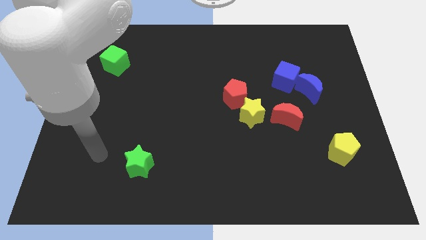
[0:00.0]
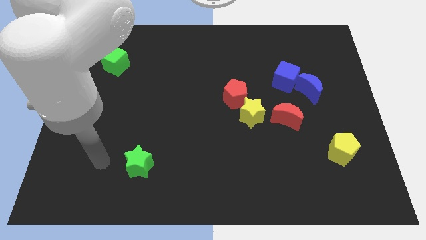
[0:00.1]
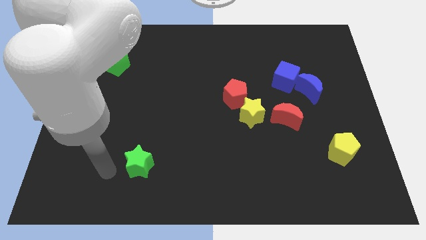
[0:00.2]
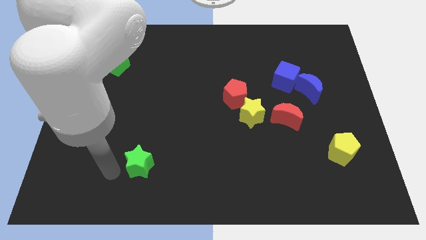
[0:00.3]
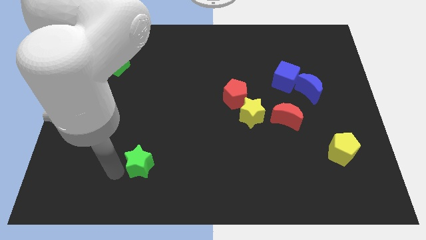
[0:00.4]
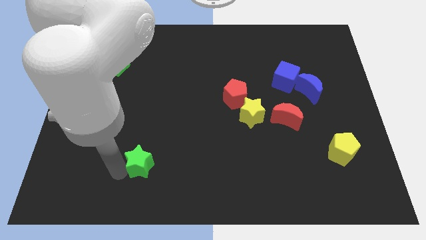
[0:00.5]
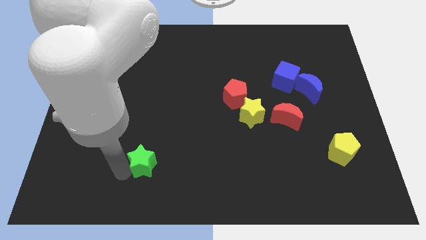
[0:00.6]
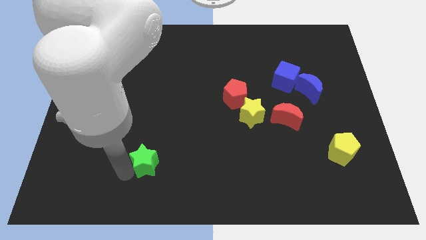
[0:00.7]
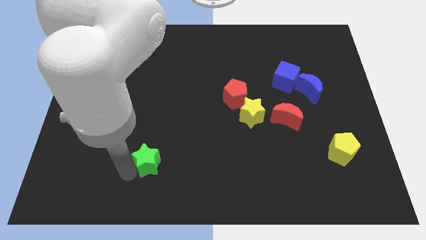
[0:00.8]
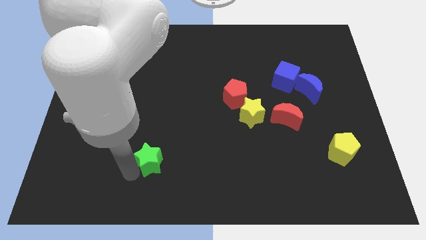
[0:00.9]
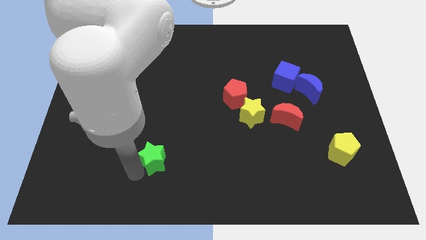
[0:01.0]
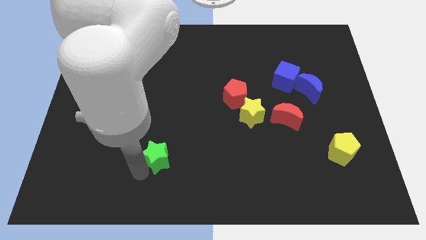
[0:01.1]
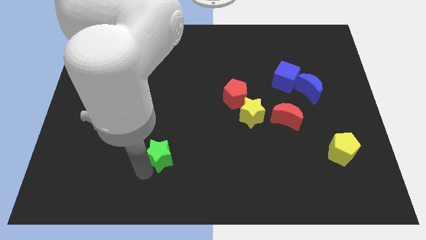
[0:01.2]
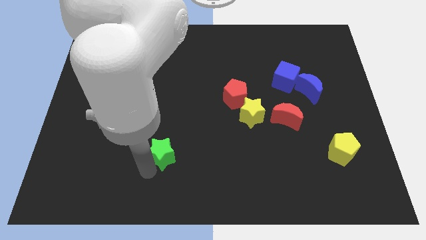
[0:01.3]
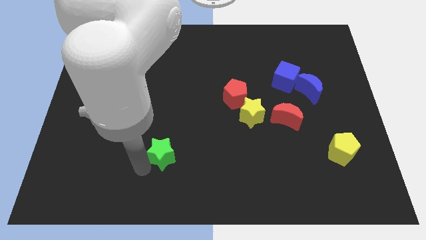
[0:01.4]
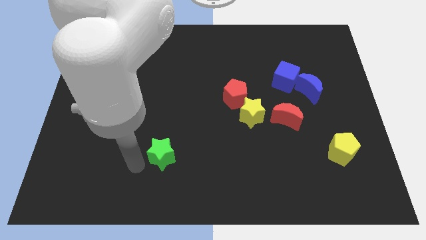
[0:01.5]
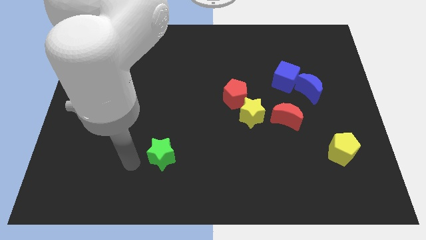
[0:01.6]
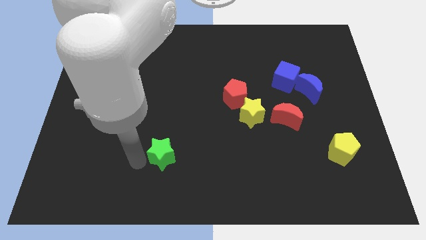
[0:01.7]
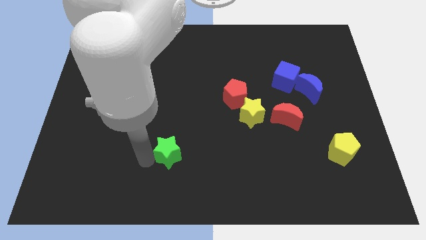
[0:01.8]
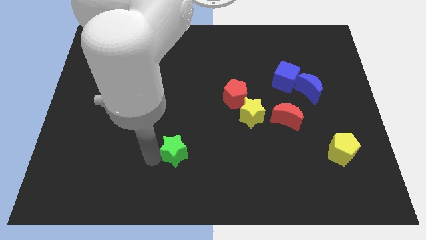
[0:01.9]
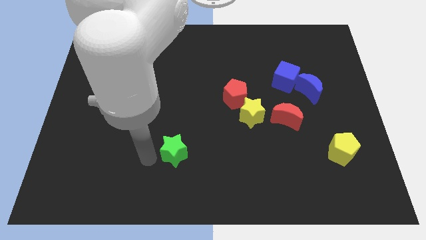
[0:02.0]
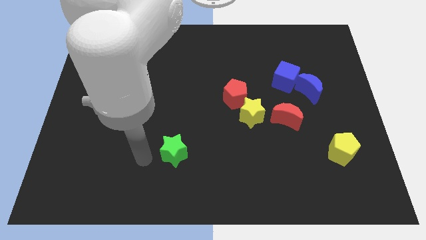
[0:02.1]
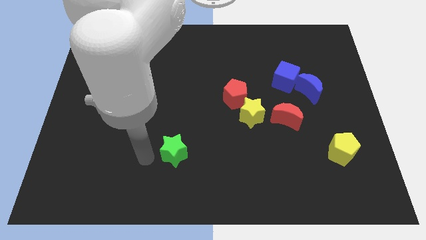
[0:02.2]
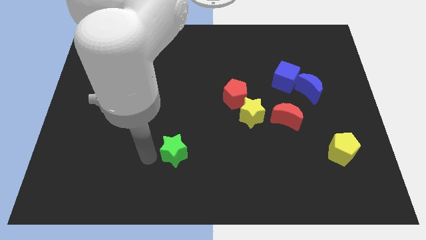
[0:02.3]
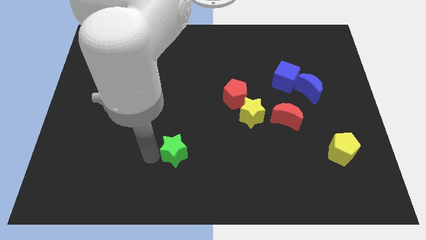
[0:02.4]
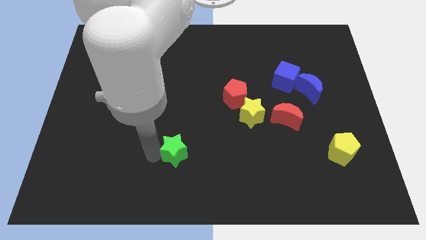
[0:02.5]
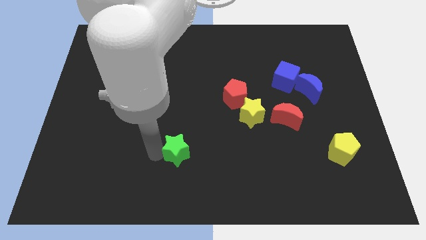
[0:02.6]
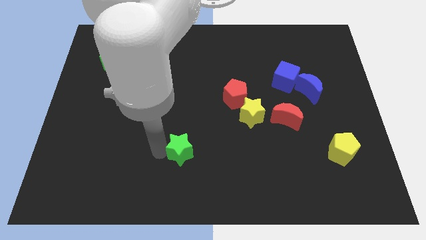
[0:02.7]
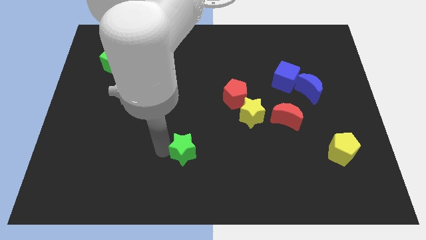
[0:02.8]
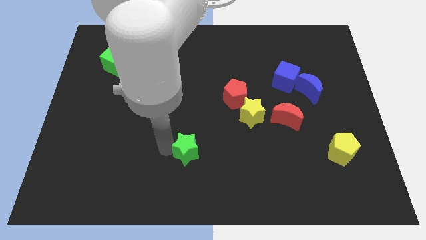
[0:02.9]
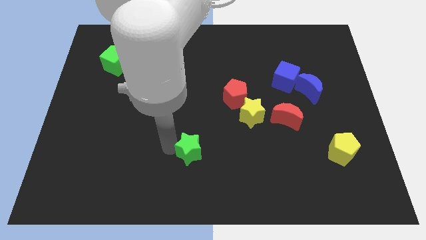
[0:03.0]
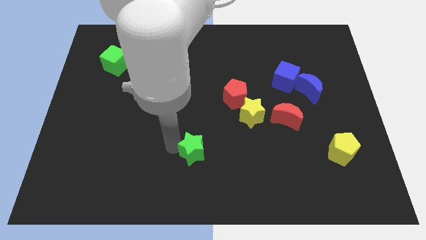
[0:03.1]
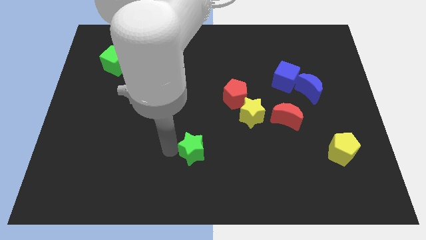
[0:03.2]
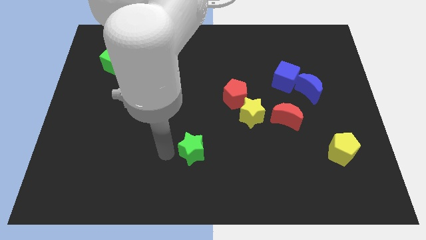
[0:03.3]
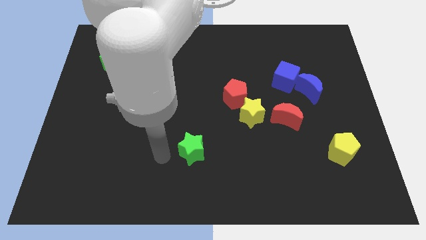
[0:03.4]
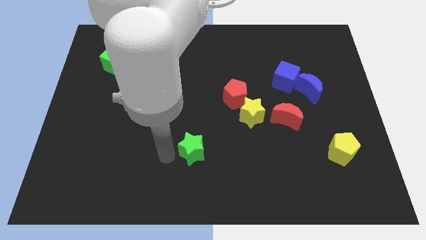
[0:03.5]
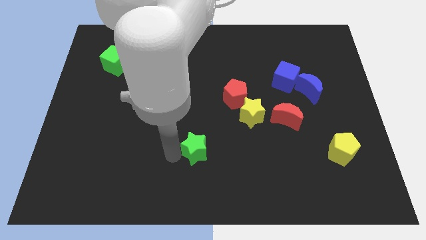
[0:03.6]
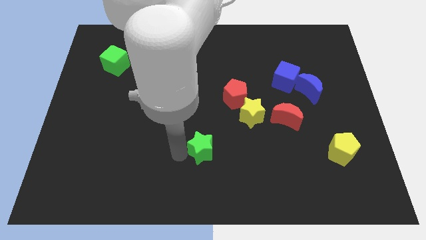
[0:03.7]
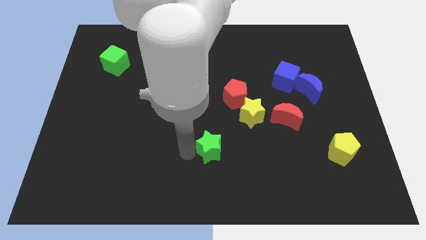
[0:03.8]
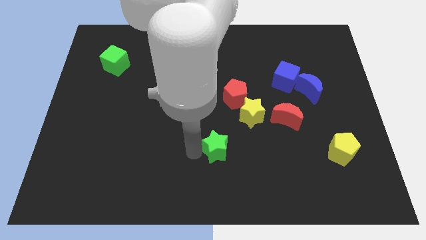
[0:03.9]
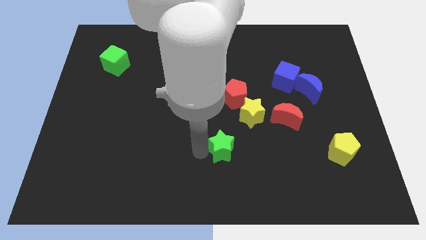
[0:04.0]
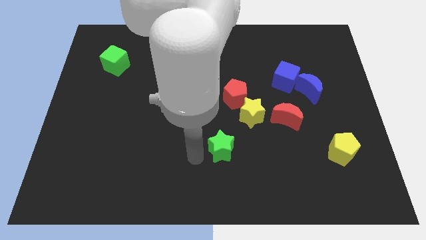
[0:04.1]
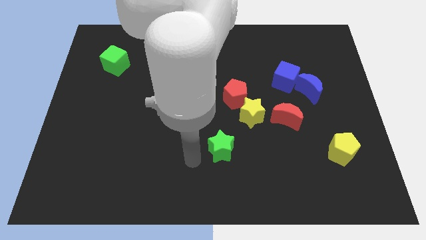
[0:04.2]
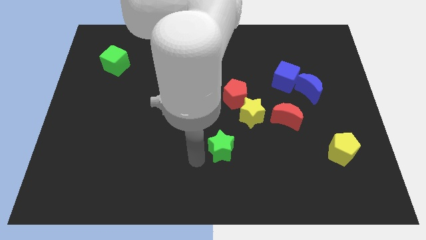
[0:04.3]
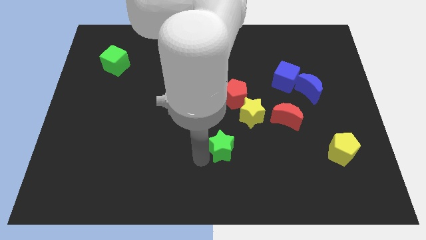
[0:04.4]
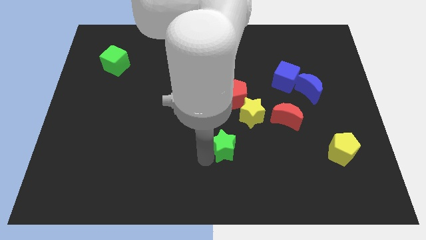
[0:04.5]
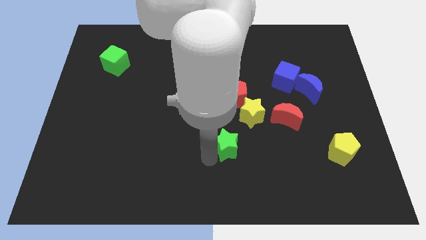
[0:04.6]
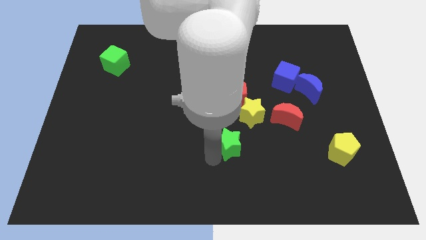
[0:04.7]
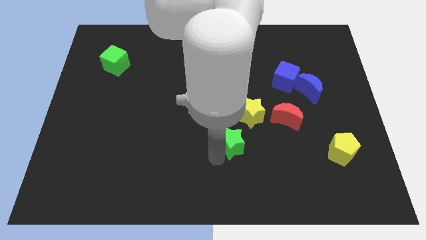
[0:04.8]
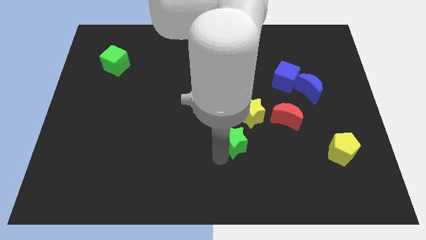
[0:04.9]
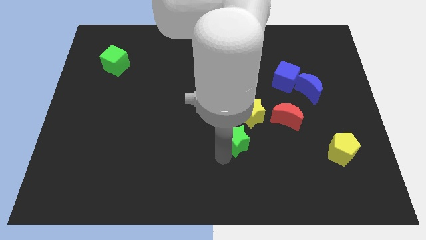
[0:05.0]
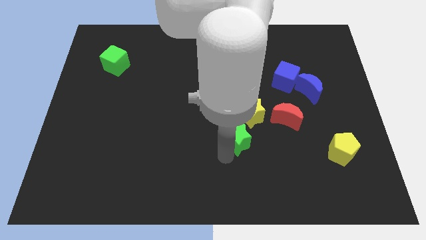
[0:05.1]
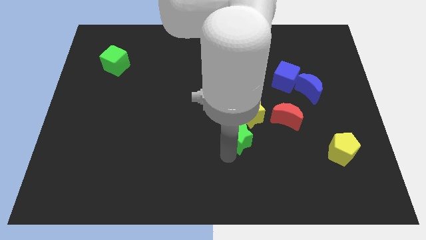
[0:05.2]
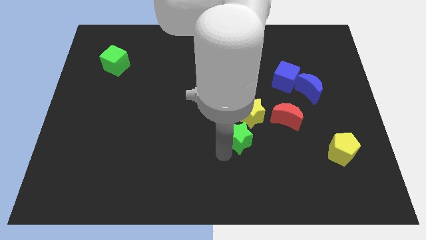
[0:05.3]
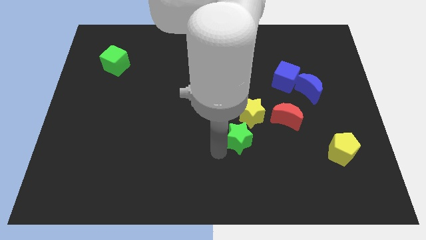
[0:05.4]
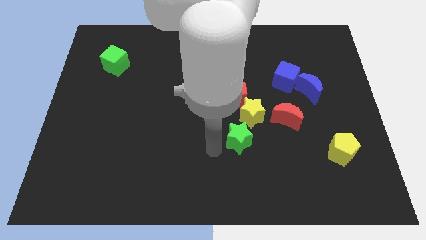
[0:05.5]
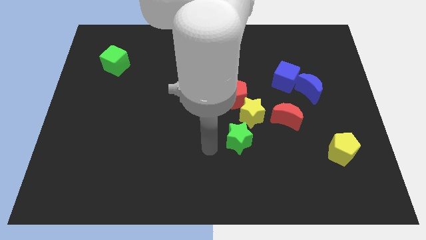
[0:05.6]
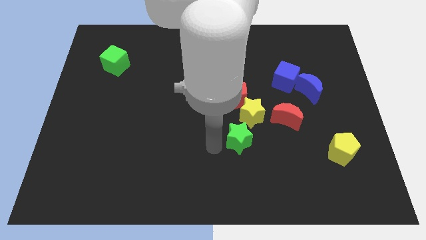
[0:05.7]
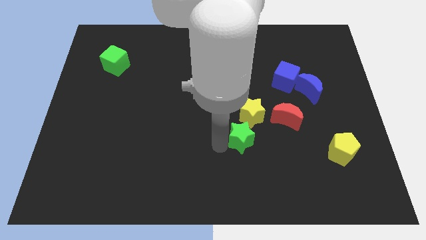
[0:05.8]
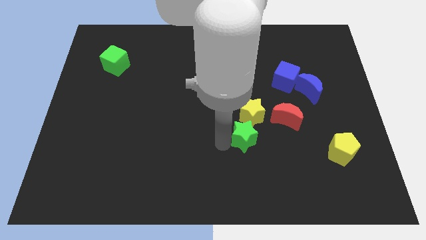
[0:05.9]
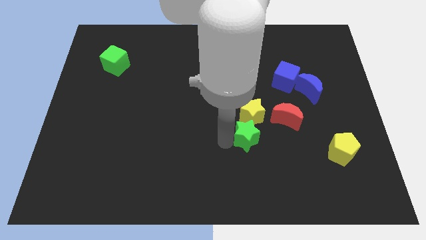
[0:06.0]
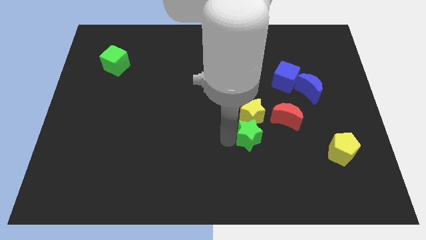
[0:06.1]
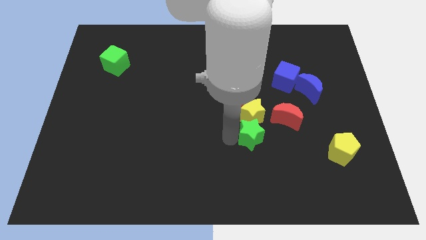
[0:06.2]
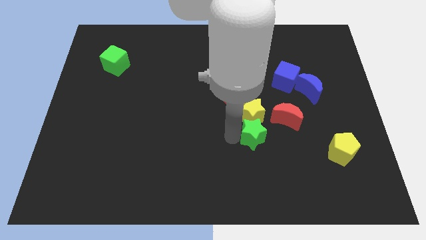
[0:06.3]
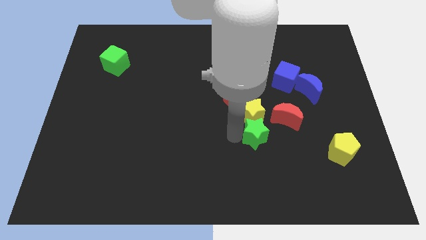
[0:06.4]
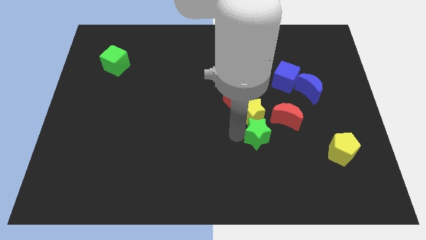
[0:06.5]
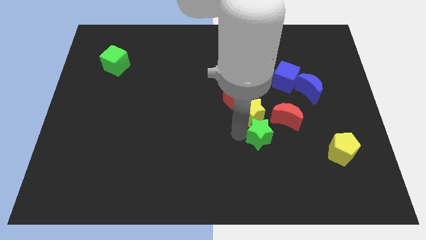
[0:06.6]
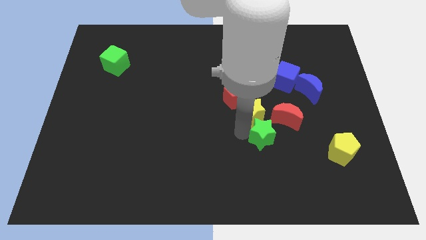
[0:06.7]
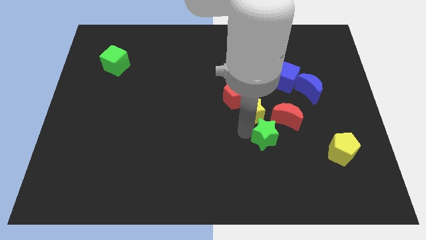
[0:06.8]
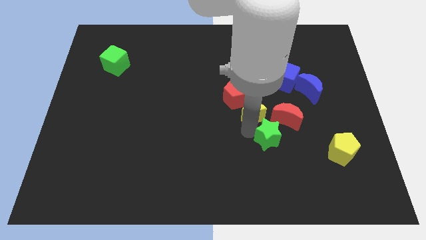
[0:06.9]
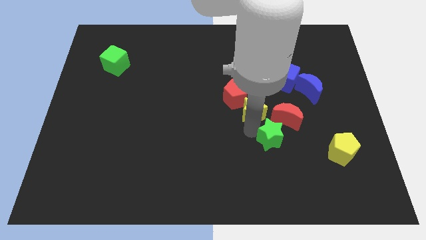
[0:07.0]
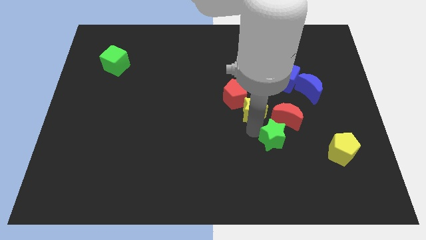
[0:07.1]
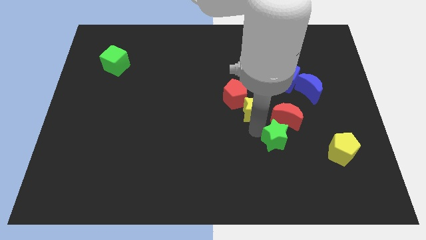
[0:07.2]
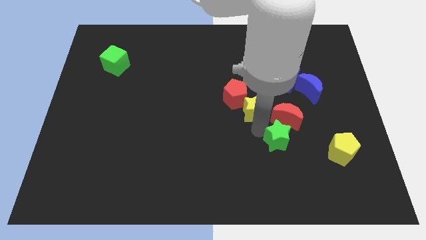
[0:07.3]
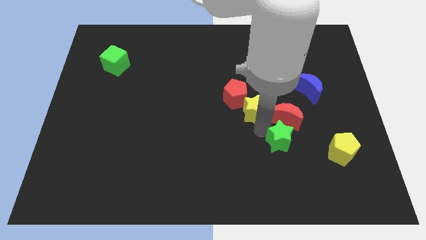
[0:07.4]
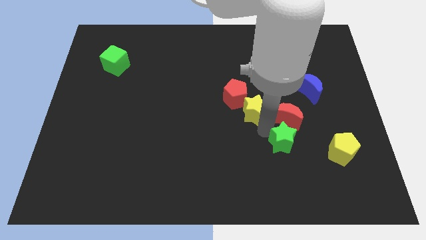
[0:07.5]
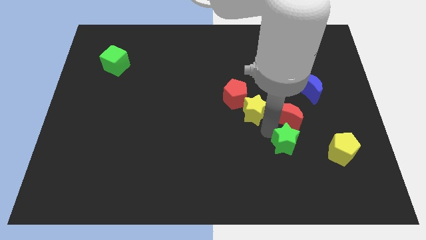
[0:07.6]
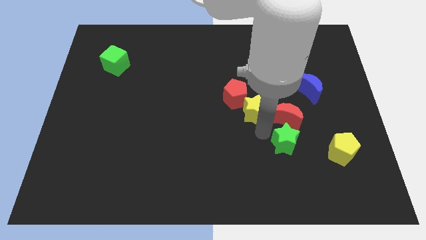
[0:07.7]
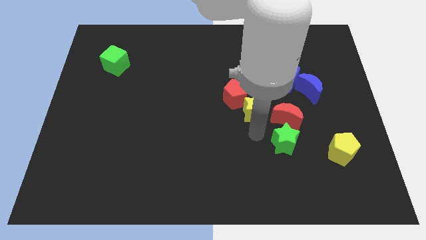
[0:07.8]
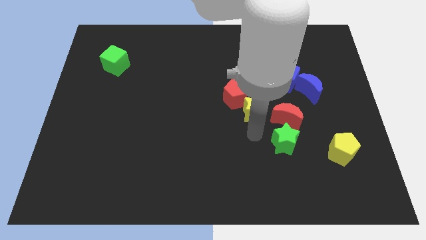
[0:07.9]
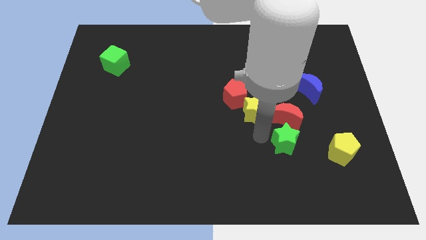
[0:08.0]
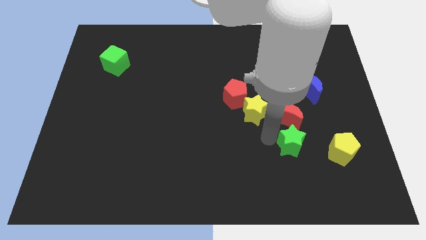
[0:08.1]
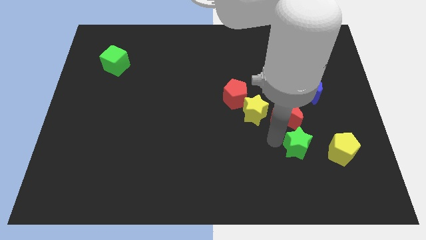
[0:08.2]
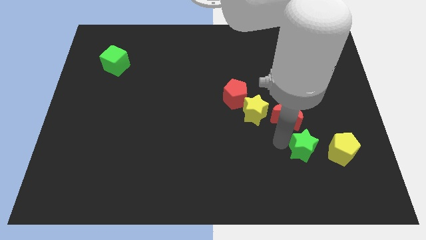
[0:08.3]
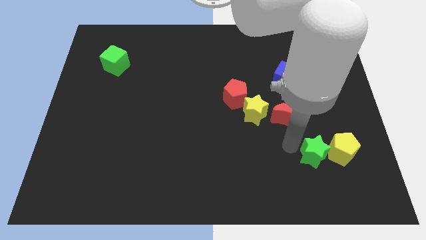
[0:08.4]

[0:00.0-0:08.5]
push the green star next to the yellow pentagon
